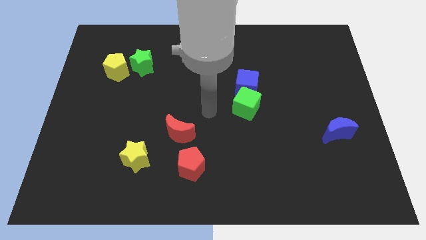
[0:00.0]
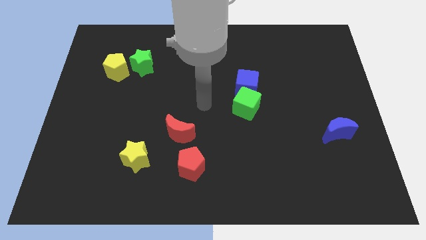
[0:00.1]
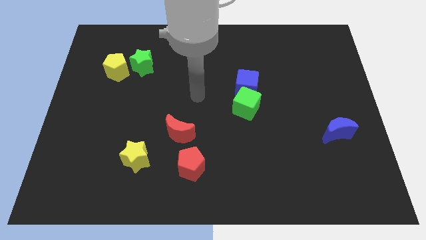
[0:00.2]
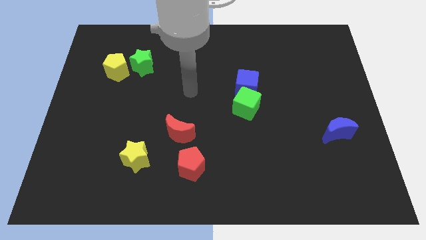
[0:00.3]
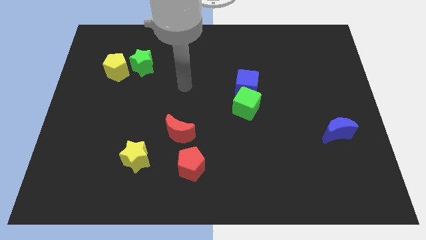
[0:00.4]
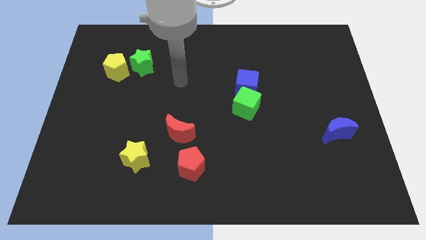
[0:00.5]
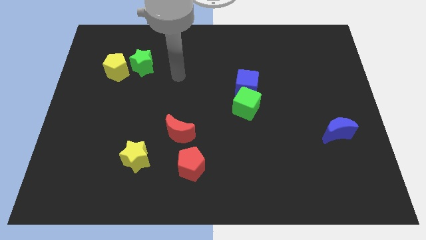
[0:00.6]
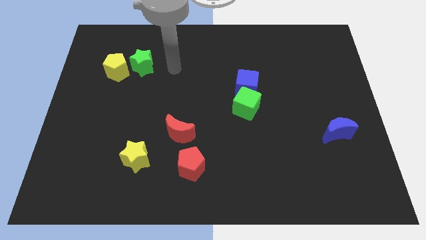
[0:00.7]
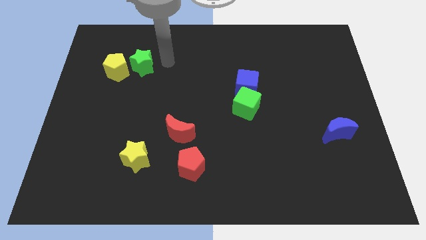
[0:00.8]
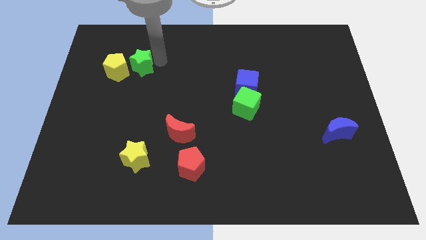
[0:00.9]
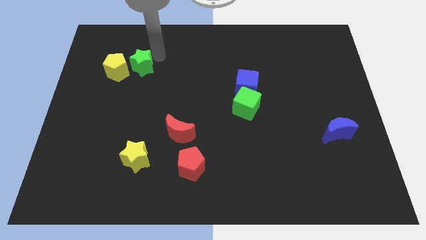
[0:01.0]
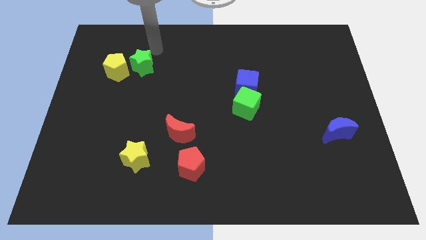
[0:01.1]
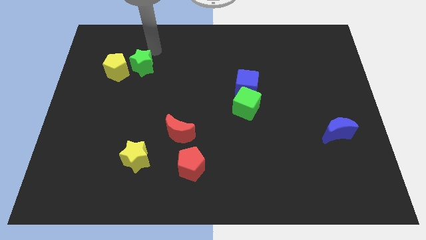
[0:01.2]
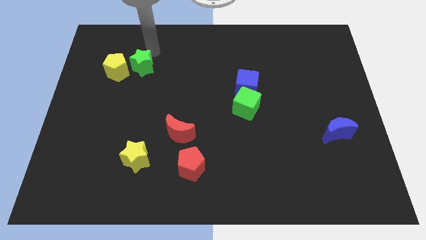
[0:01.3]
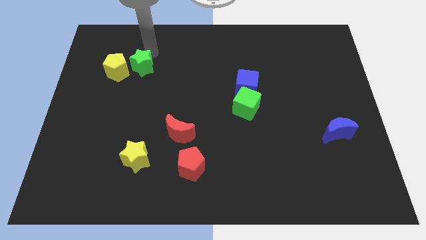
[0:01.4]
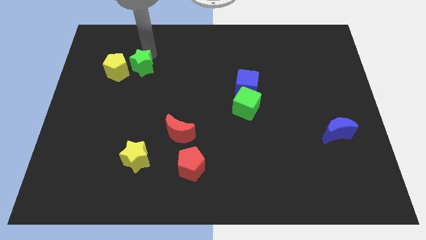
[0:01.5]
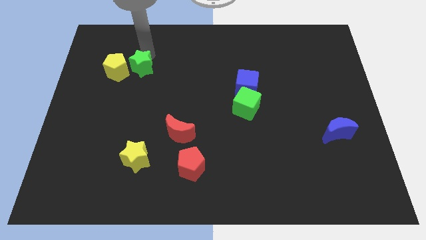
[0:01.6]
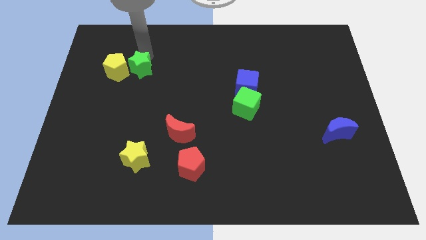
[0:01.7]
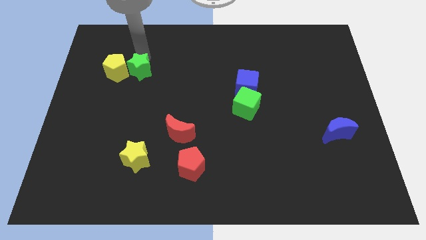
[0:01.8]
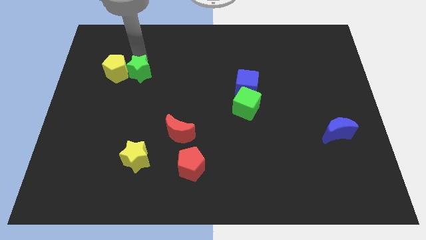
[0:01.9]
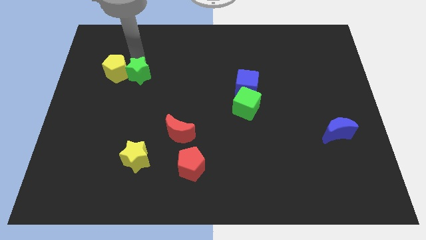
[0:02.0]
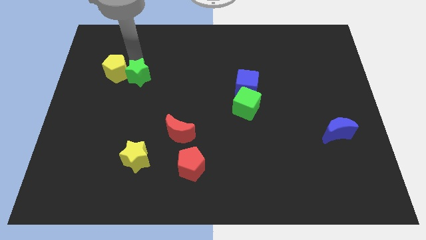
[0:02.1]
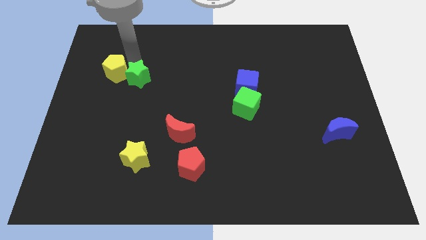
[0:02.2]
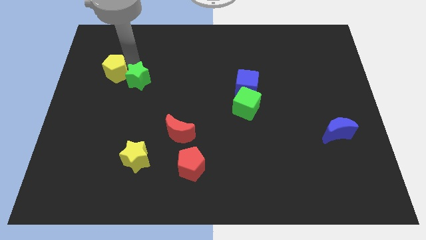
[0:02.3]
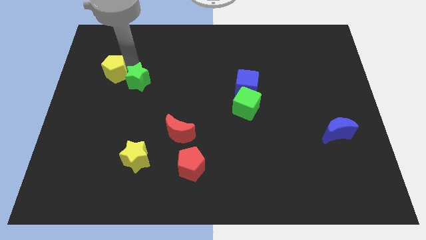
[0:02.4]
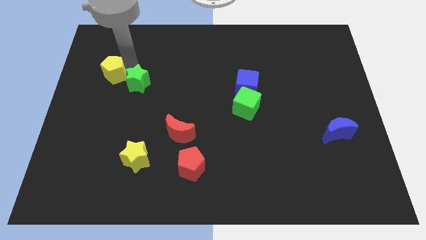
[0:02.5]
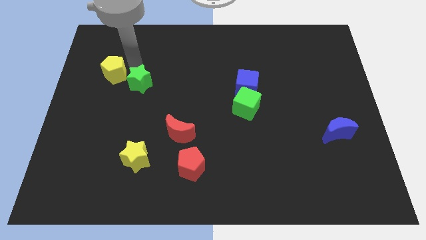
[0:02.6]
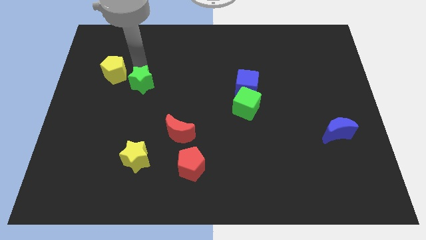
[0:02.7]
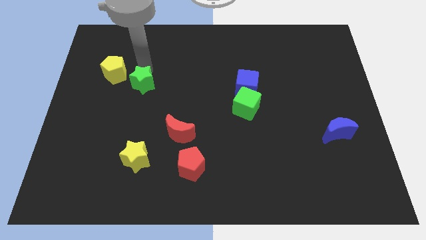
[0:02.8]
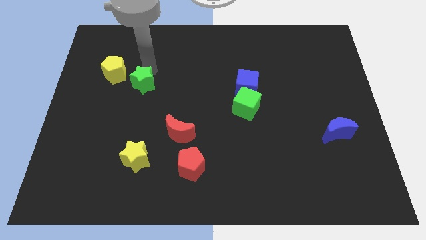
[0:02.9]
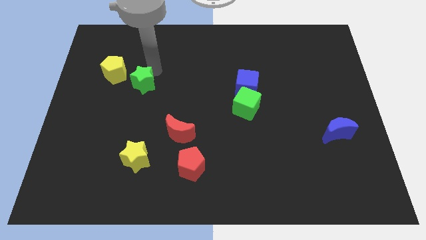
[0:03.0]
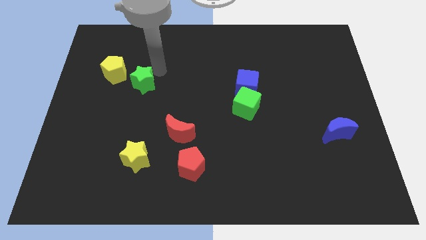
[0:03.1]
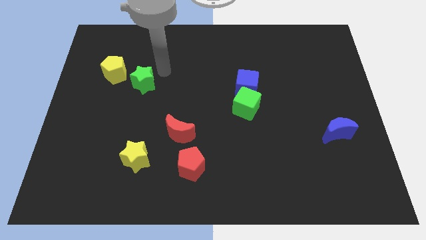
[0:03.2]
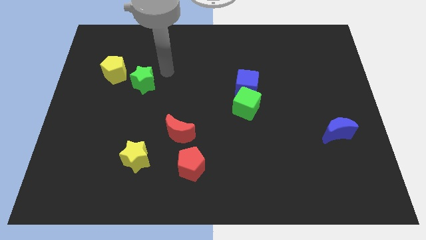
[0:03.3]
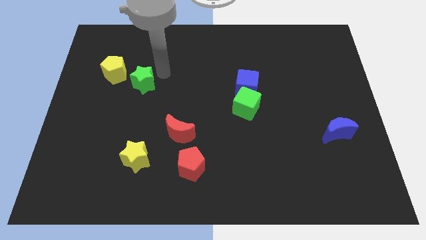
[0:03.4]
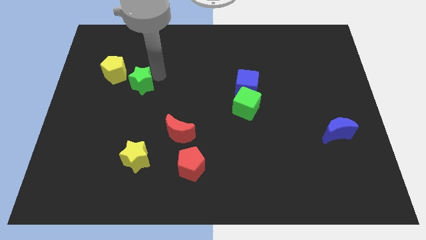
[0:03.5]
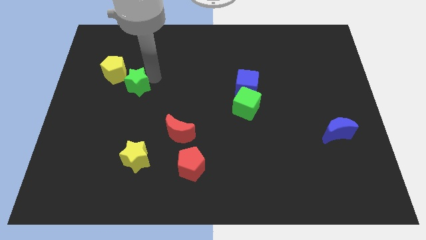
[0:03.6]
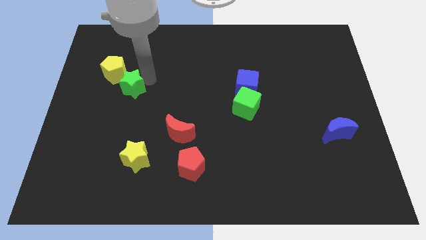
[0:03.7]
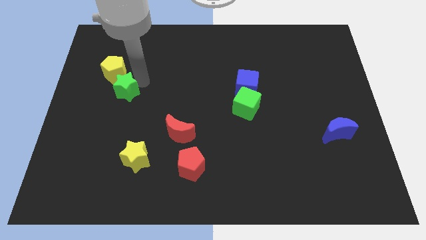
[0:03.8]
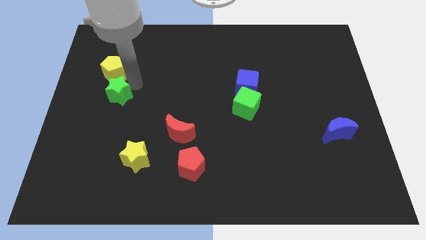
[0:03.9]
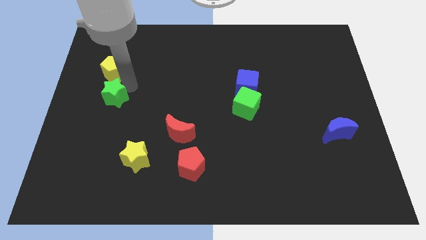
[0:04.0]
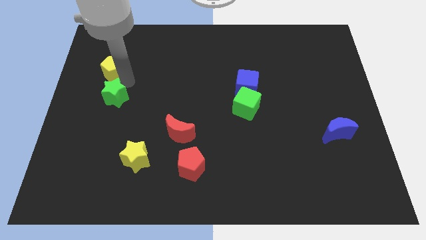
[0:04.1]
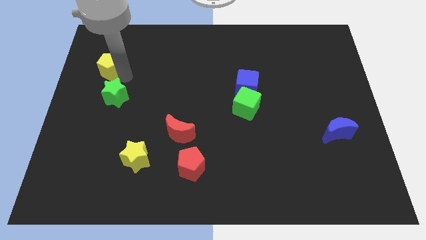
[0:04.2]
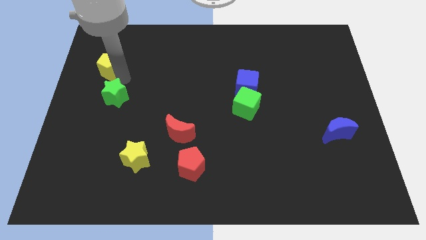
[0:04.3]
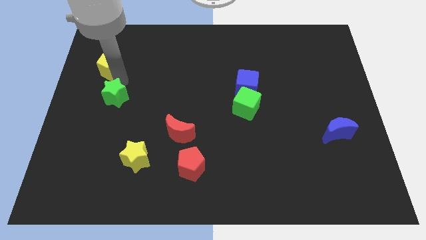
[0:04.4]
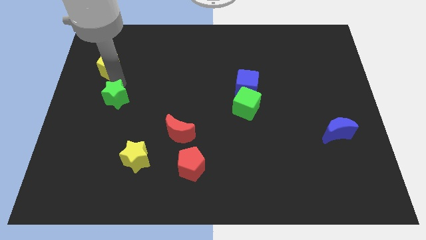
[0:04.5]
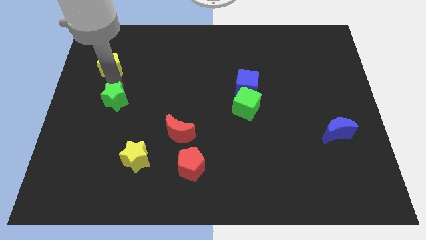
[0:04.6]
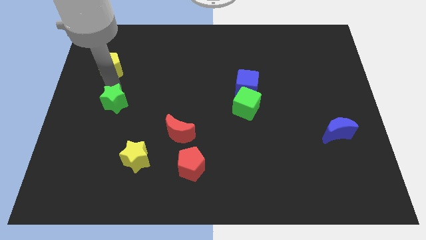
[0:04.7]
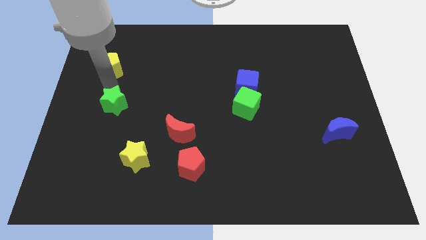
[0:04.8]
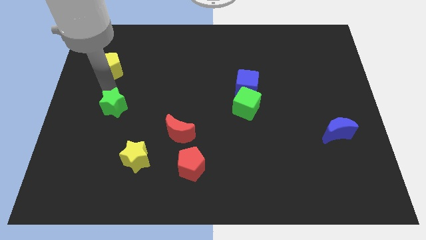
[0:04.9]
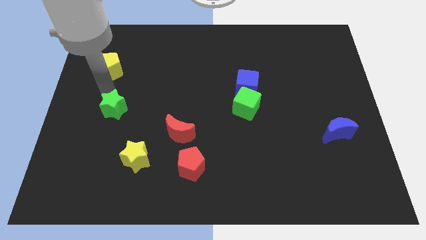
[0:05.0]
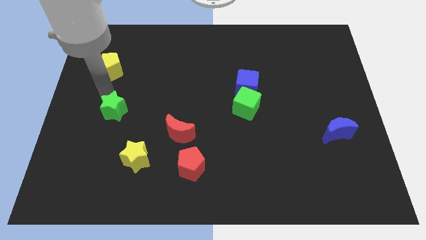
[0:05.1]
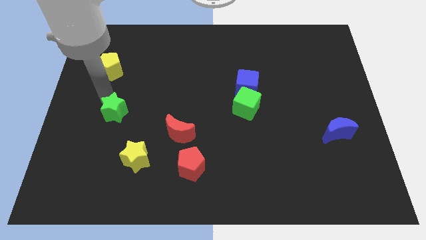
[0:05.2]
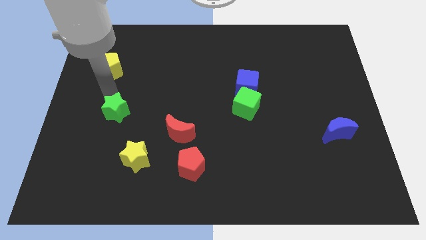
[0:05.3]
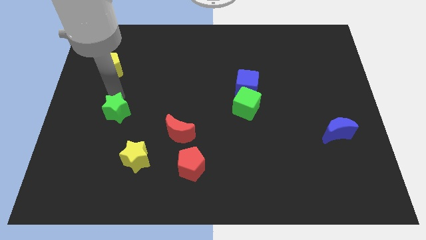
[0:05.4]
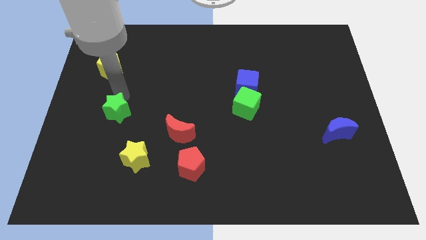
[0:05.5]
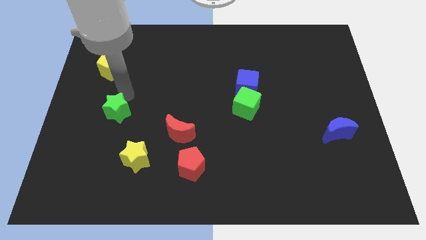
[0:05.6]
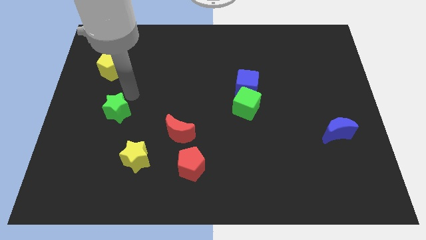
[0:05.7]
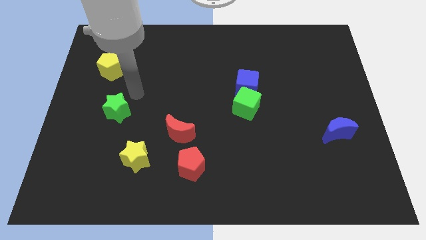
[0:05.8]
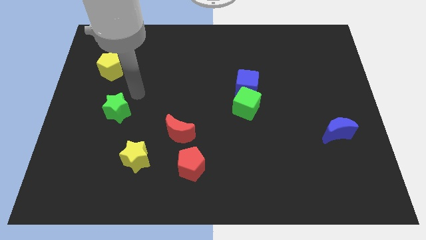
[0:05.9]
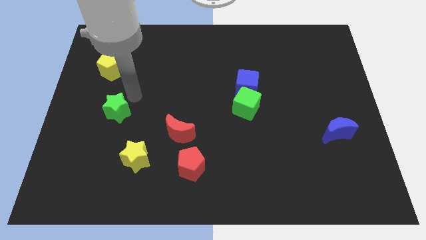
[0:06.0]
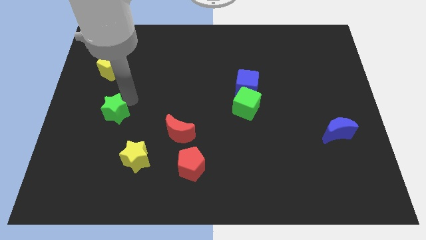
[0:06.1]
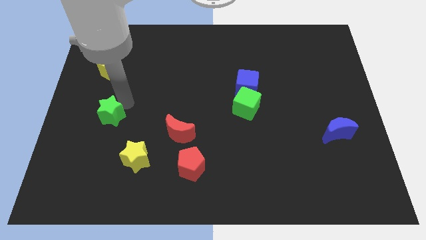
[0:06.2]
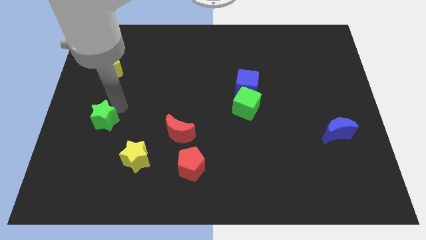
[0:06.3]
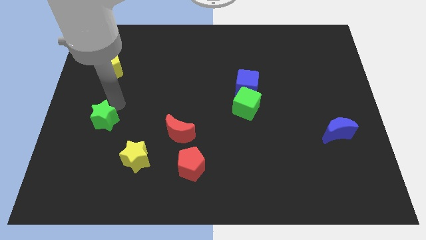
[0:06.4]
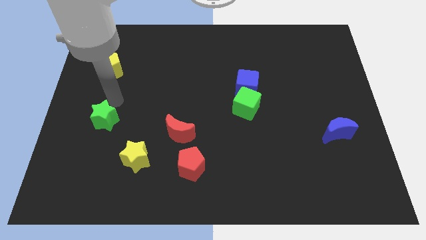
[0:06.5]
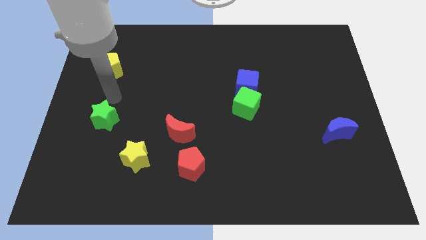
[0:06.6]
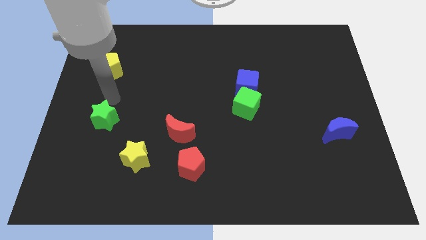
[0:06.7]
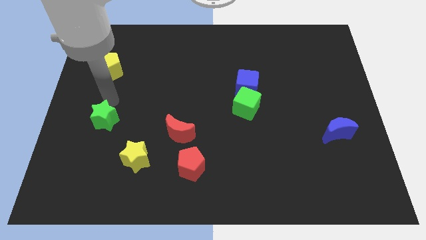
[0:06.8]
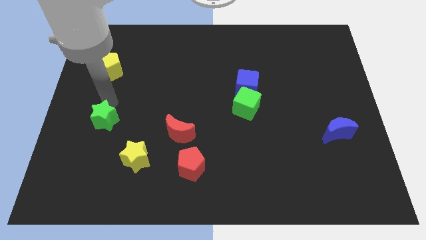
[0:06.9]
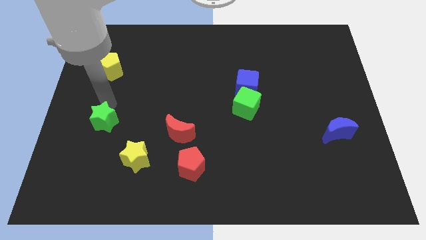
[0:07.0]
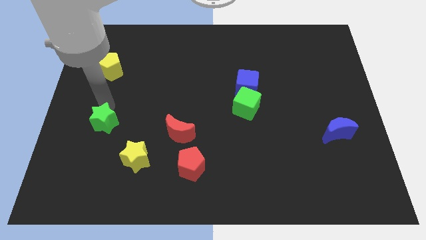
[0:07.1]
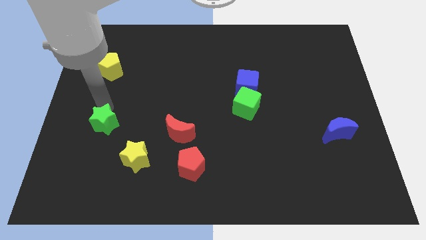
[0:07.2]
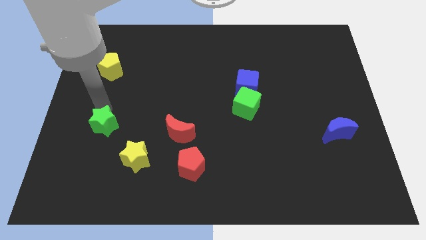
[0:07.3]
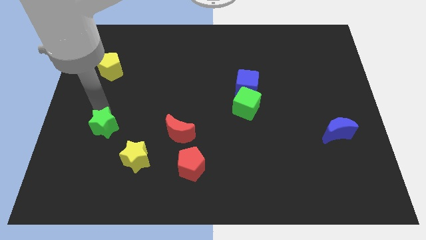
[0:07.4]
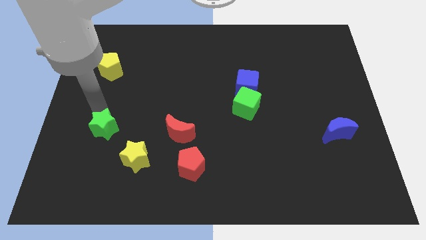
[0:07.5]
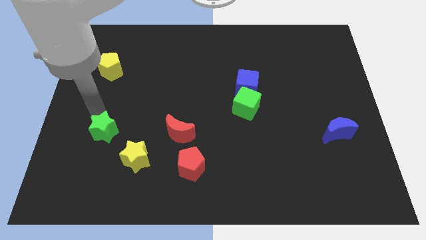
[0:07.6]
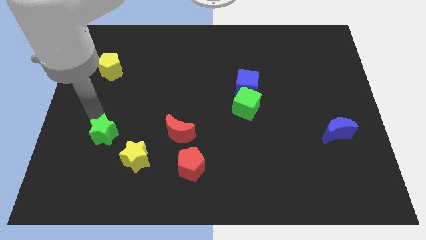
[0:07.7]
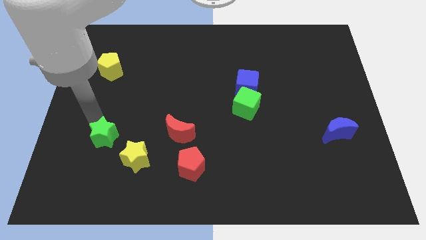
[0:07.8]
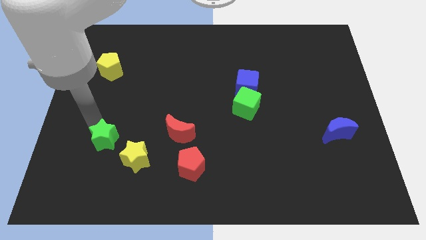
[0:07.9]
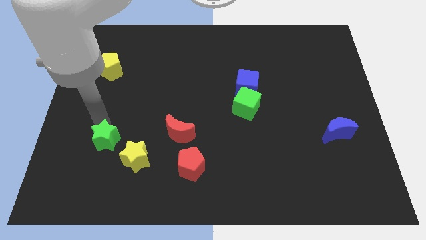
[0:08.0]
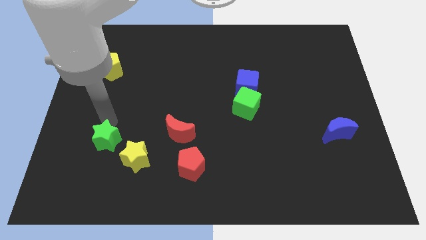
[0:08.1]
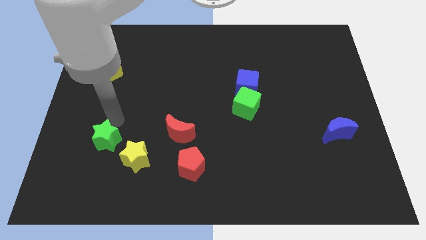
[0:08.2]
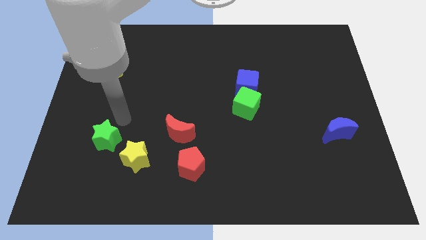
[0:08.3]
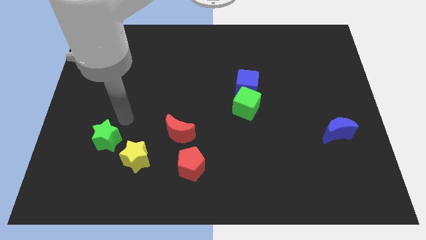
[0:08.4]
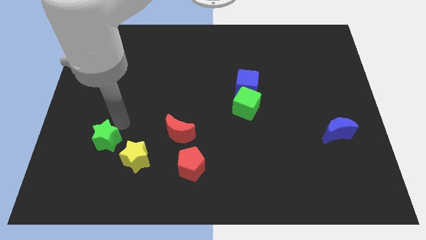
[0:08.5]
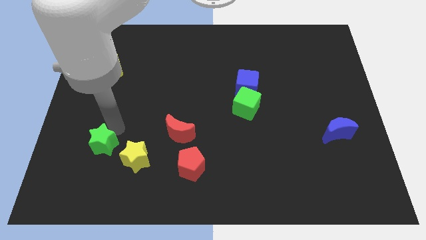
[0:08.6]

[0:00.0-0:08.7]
move the green star to the left of the yellow star
